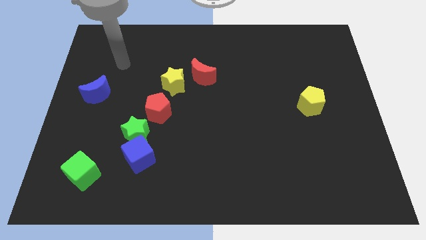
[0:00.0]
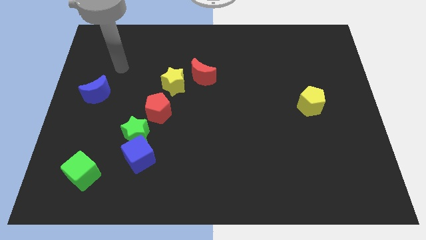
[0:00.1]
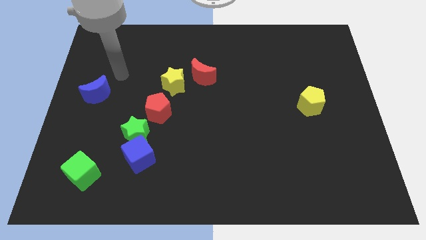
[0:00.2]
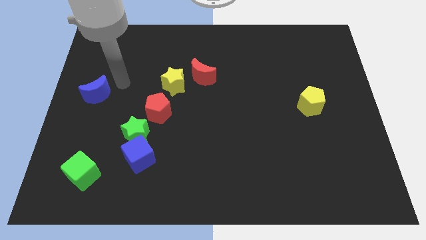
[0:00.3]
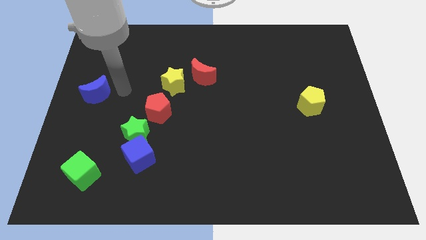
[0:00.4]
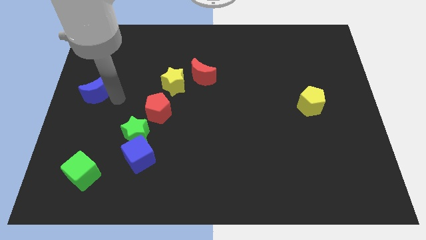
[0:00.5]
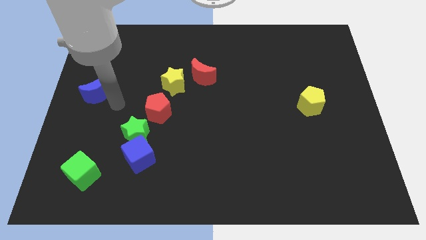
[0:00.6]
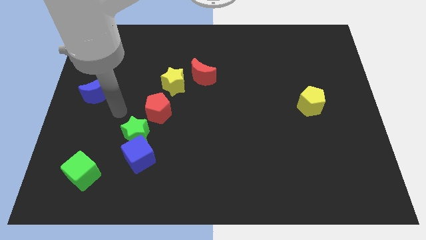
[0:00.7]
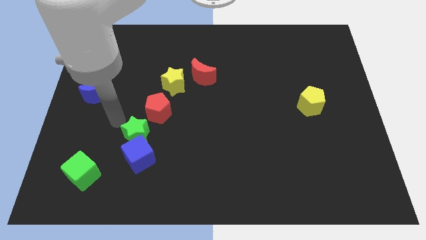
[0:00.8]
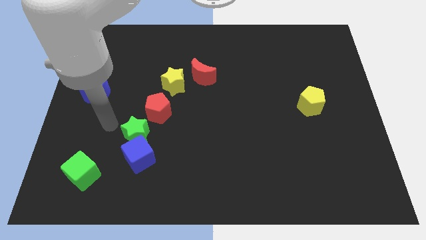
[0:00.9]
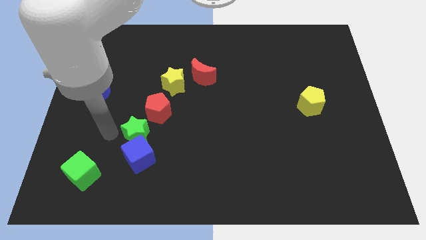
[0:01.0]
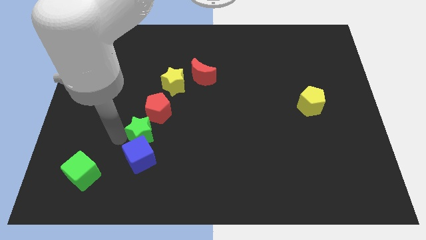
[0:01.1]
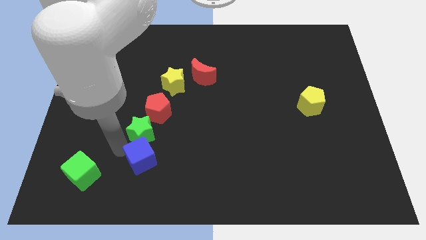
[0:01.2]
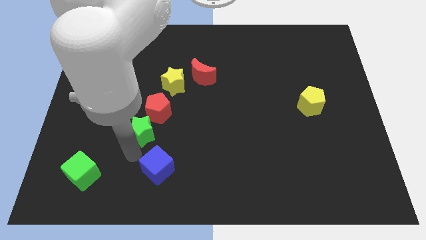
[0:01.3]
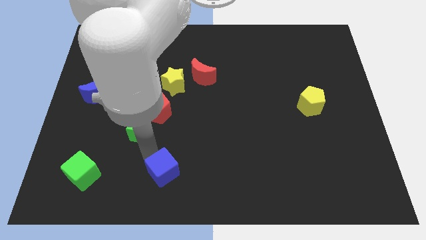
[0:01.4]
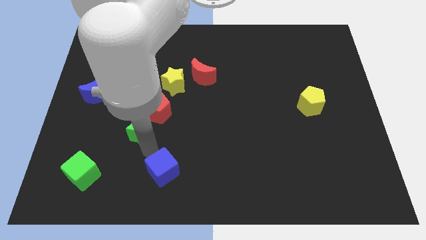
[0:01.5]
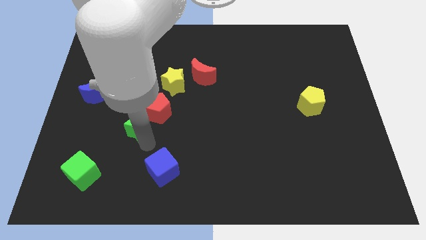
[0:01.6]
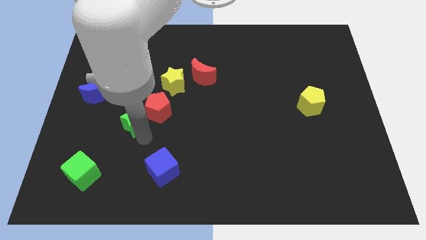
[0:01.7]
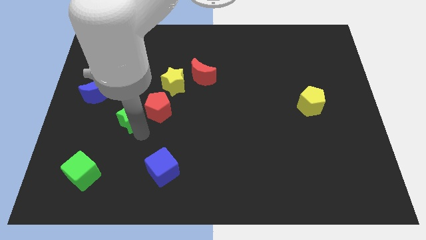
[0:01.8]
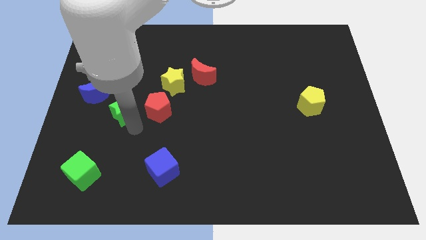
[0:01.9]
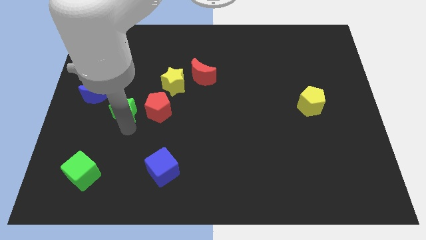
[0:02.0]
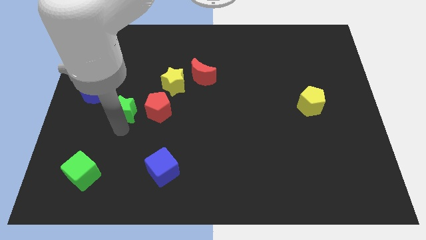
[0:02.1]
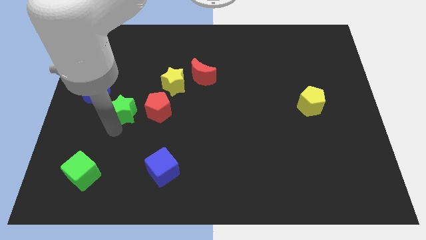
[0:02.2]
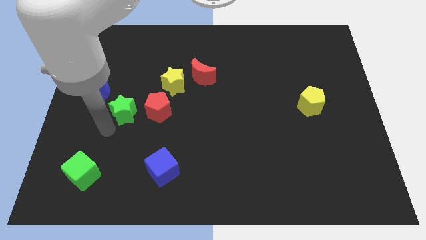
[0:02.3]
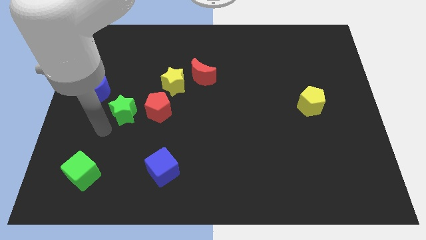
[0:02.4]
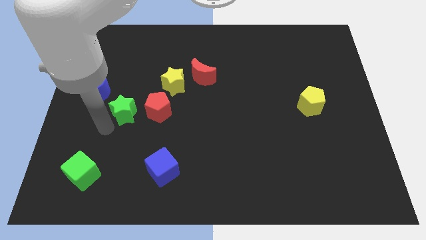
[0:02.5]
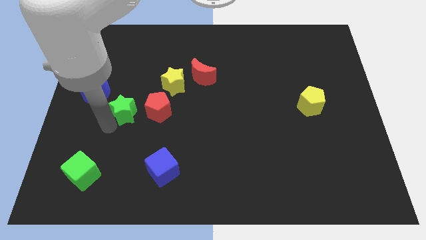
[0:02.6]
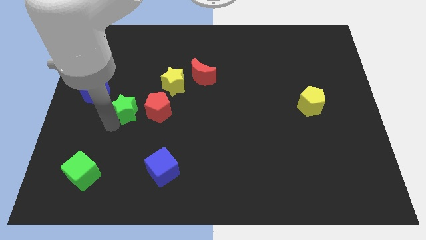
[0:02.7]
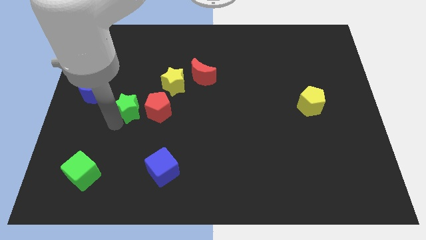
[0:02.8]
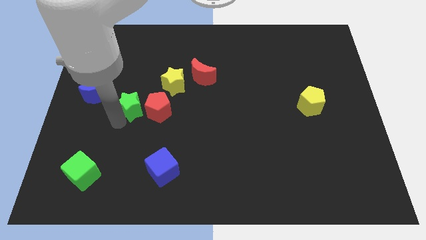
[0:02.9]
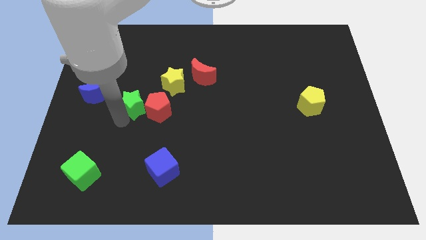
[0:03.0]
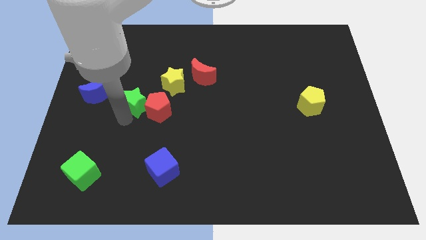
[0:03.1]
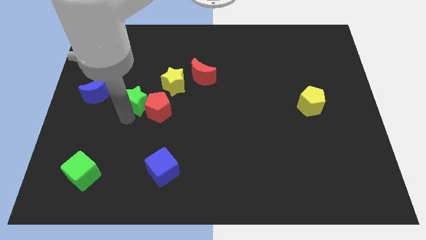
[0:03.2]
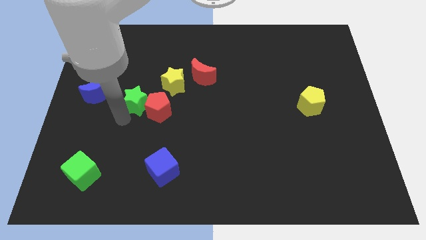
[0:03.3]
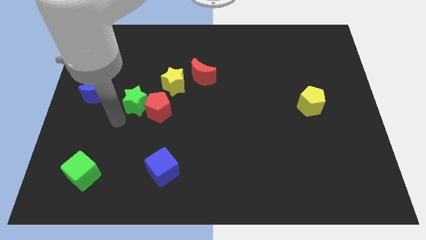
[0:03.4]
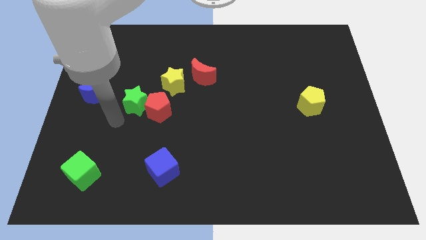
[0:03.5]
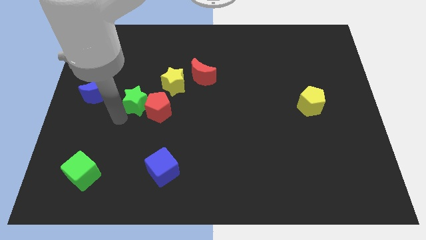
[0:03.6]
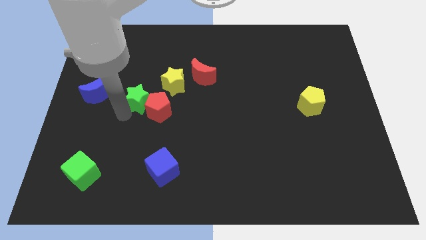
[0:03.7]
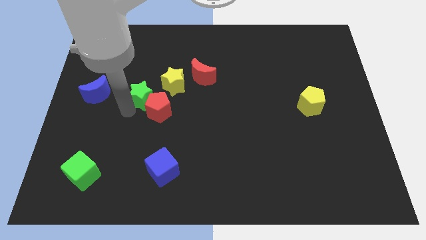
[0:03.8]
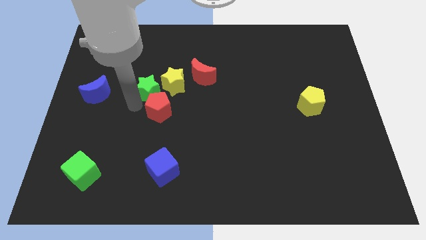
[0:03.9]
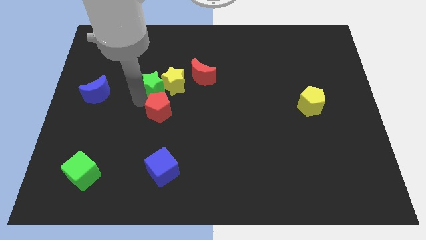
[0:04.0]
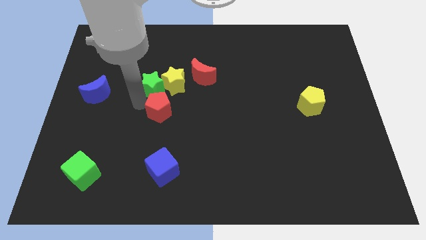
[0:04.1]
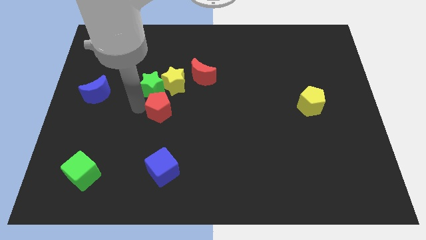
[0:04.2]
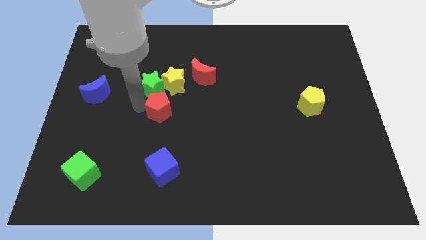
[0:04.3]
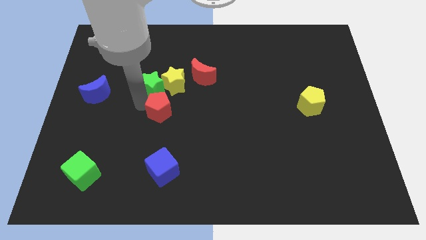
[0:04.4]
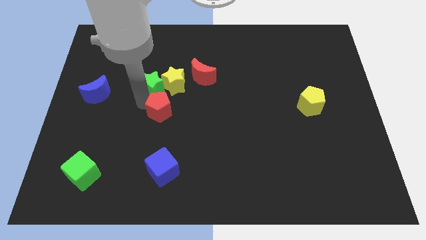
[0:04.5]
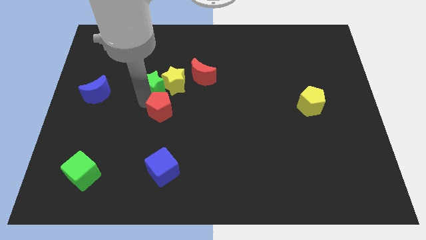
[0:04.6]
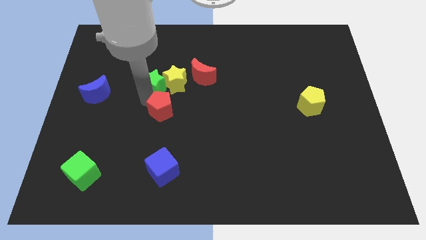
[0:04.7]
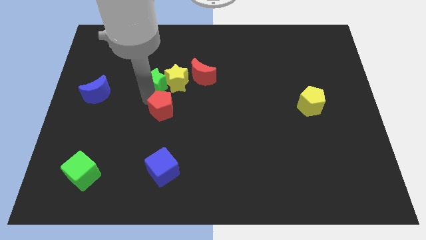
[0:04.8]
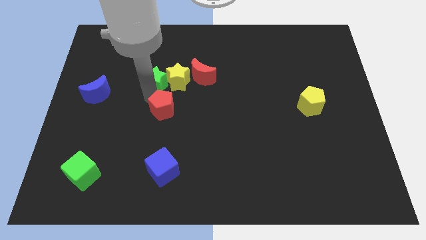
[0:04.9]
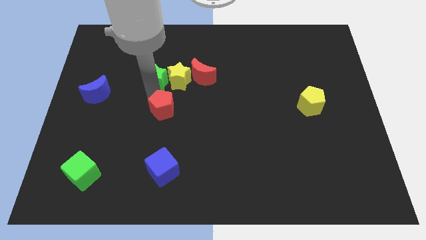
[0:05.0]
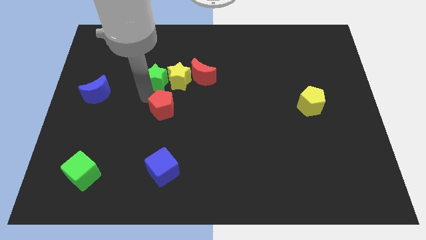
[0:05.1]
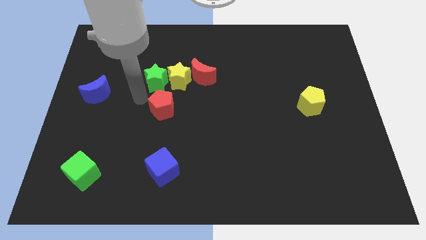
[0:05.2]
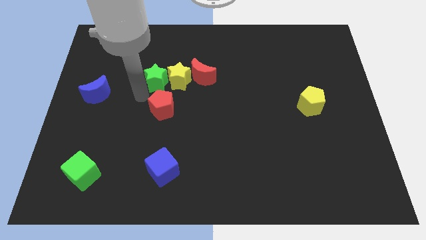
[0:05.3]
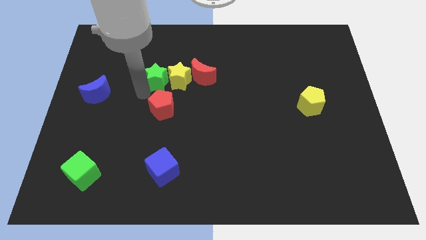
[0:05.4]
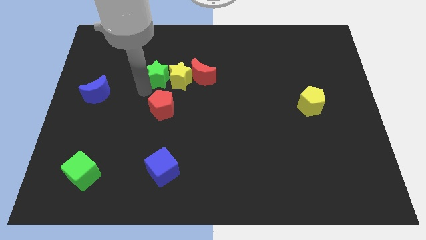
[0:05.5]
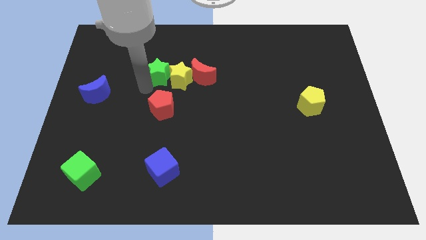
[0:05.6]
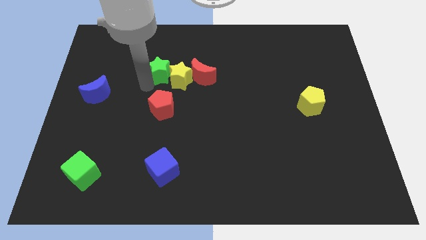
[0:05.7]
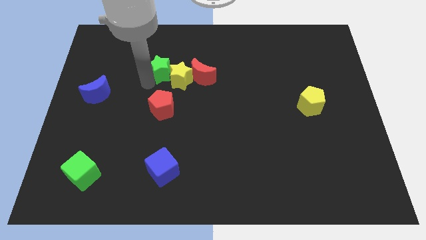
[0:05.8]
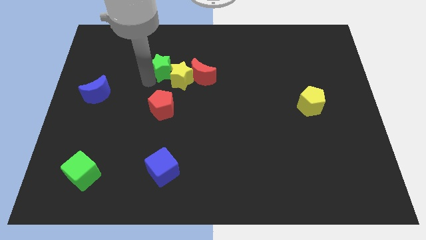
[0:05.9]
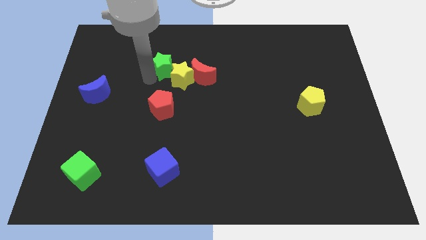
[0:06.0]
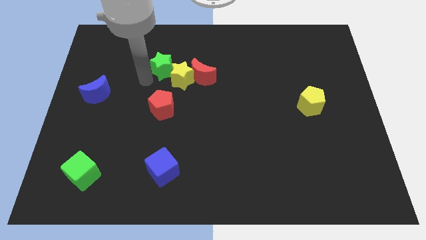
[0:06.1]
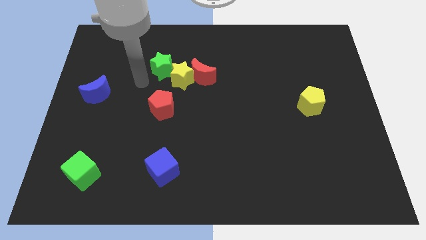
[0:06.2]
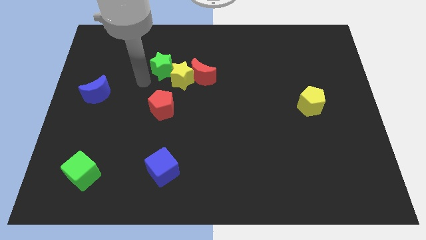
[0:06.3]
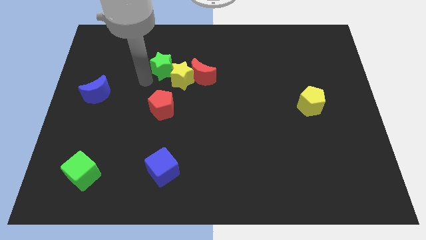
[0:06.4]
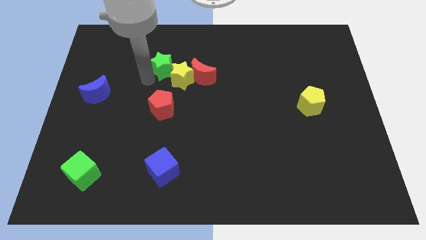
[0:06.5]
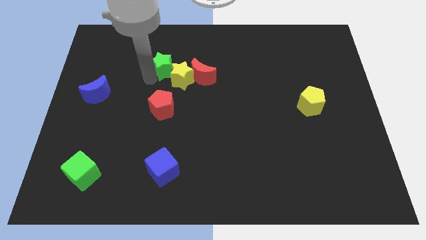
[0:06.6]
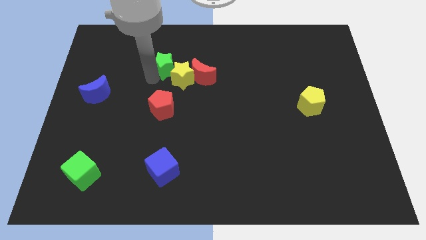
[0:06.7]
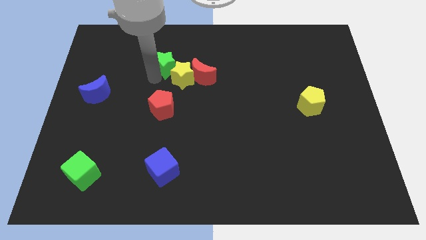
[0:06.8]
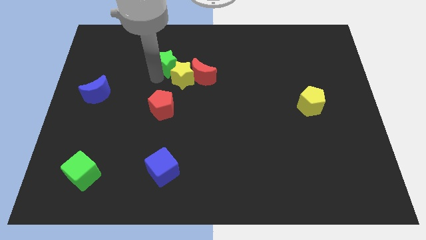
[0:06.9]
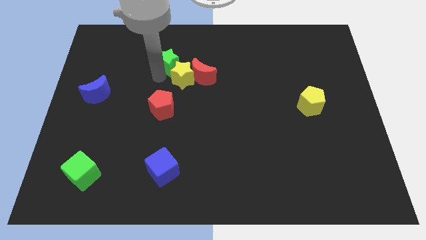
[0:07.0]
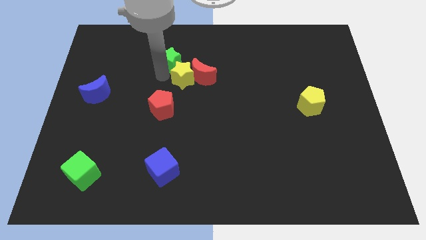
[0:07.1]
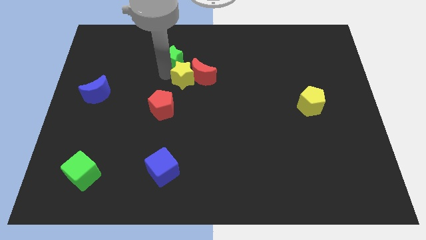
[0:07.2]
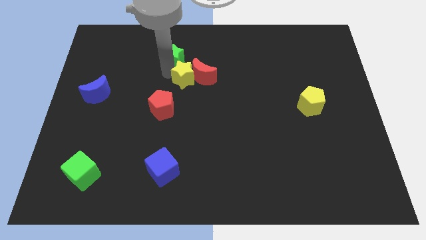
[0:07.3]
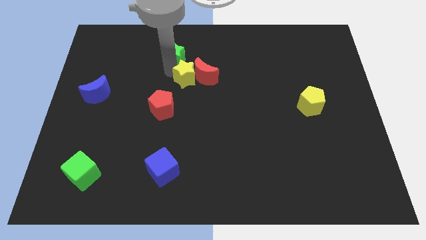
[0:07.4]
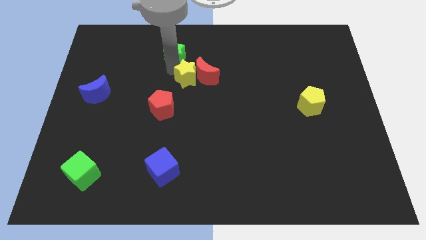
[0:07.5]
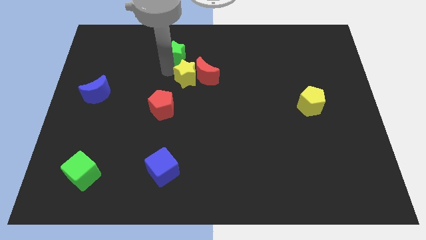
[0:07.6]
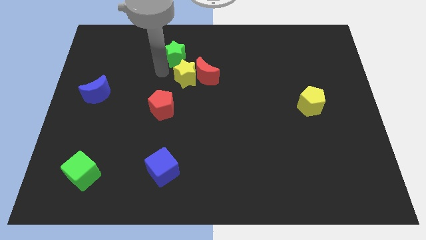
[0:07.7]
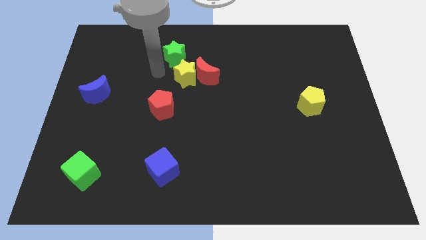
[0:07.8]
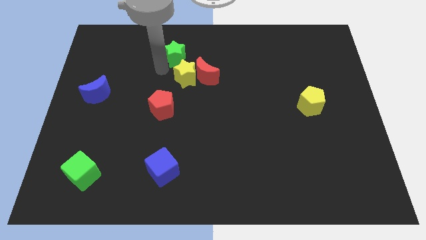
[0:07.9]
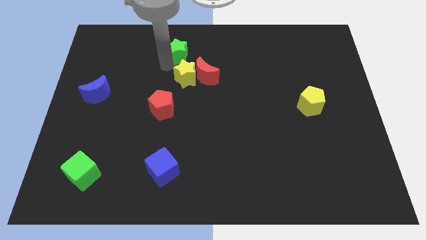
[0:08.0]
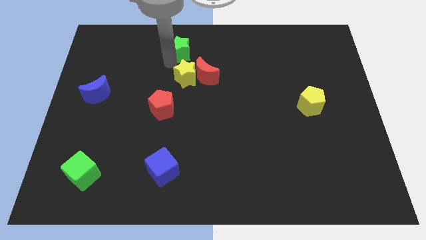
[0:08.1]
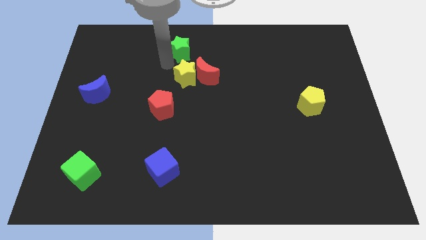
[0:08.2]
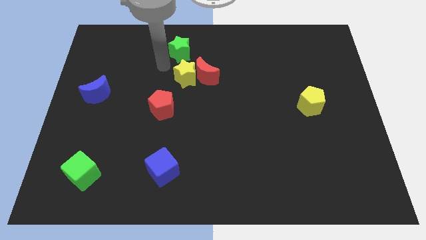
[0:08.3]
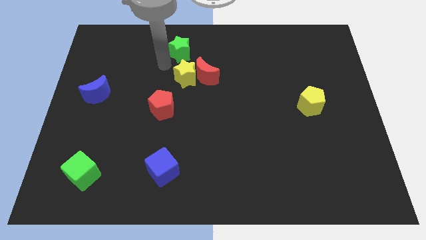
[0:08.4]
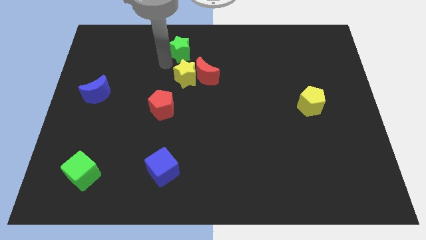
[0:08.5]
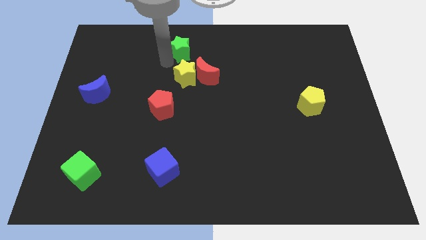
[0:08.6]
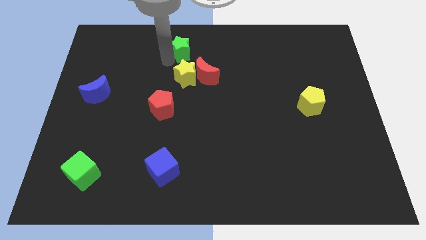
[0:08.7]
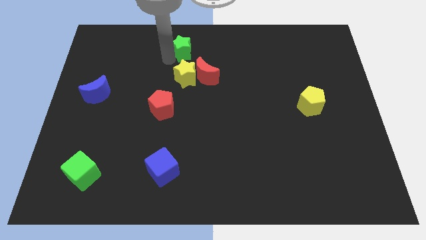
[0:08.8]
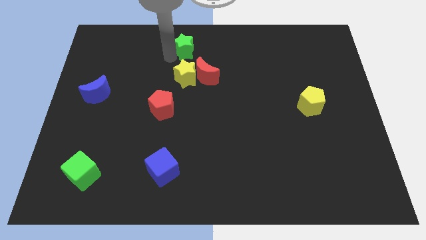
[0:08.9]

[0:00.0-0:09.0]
put the green star to the towards your base
